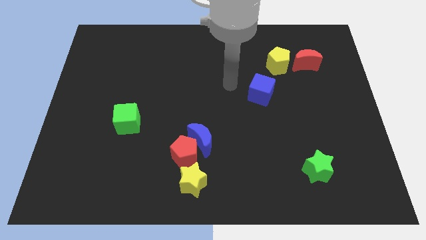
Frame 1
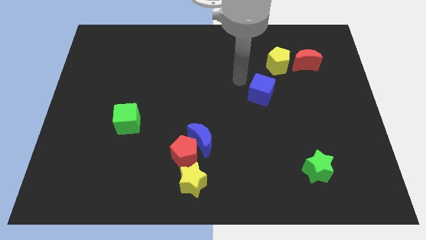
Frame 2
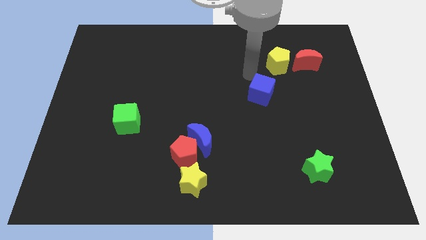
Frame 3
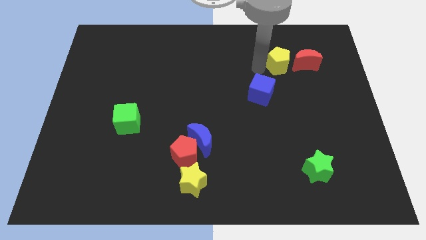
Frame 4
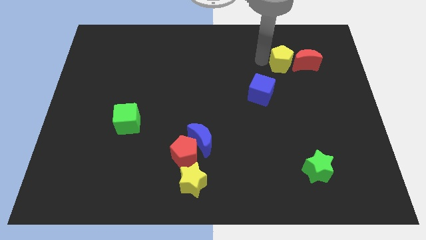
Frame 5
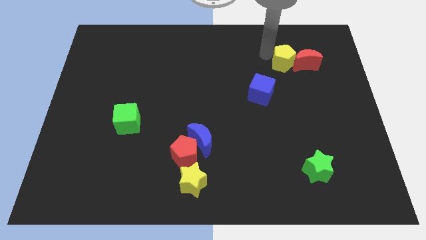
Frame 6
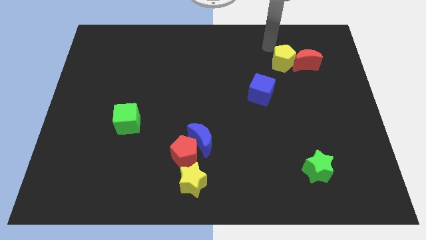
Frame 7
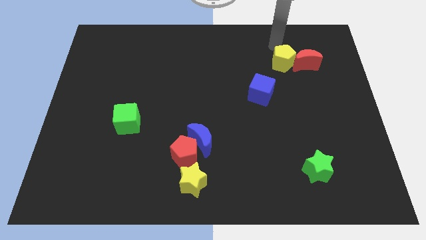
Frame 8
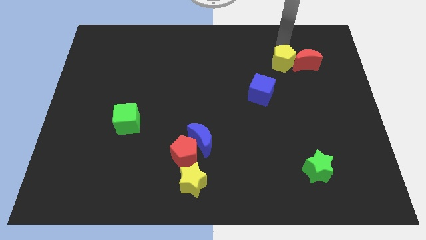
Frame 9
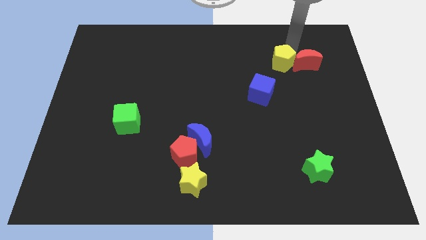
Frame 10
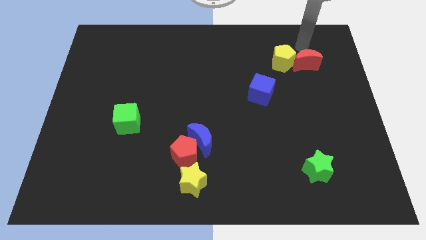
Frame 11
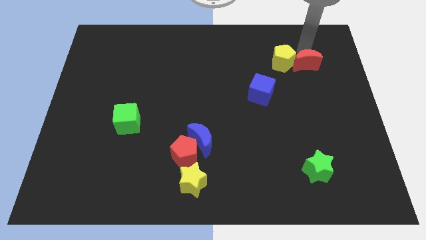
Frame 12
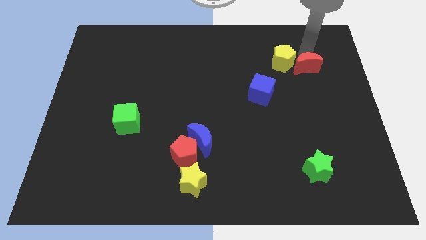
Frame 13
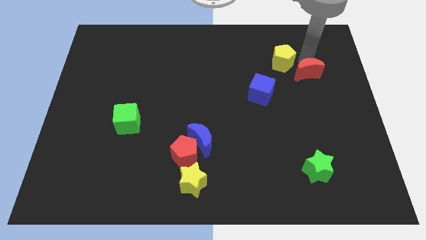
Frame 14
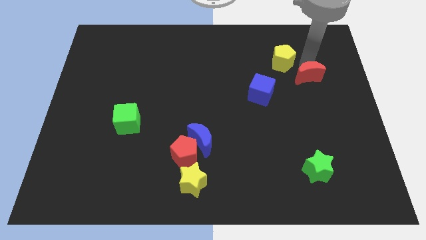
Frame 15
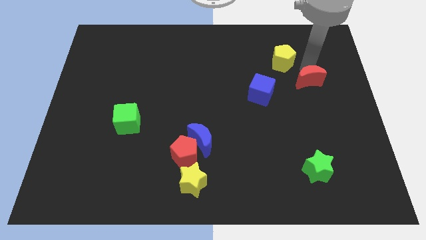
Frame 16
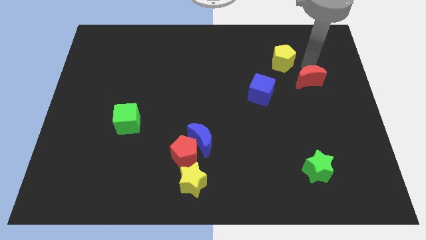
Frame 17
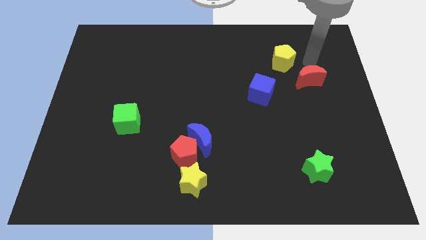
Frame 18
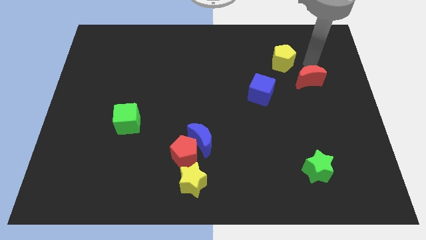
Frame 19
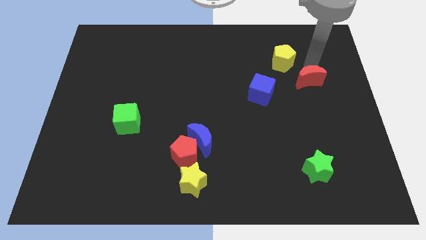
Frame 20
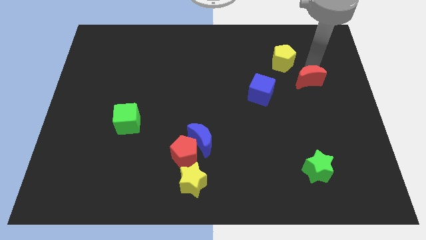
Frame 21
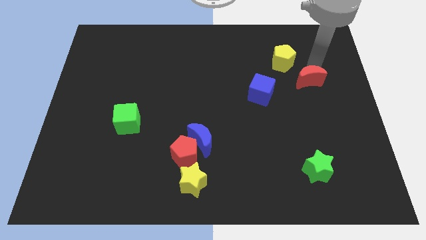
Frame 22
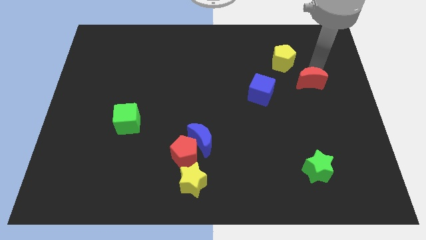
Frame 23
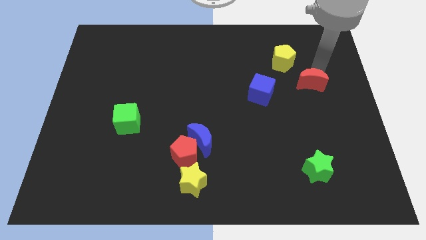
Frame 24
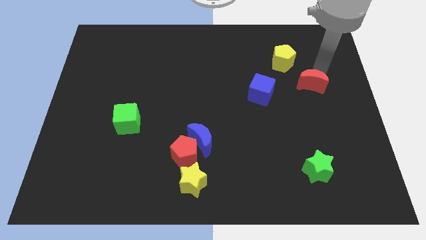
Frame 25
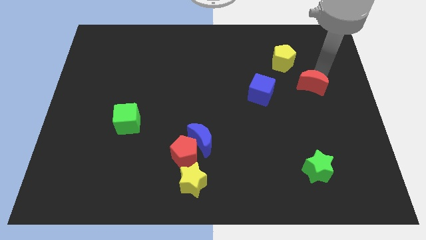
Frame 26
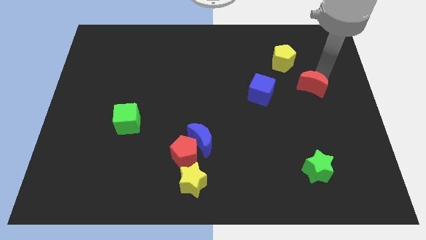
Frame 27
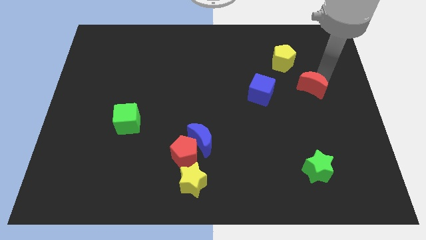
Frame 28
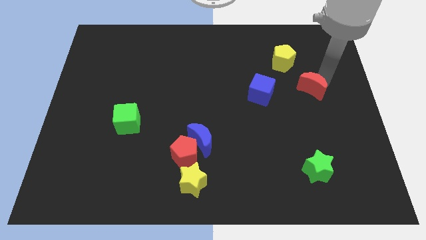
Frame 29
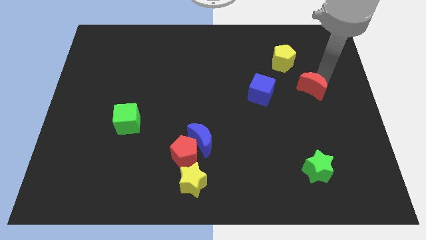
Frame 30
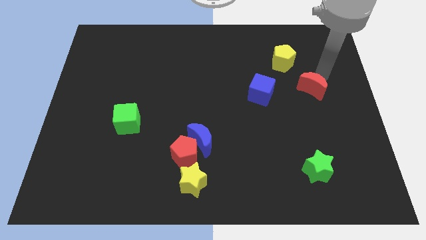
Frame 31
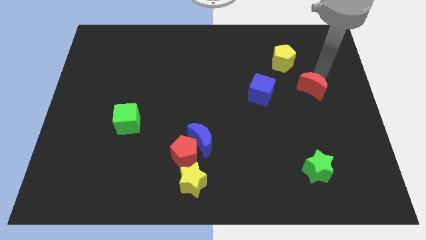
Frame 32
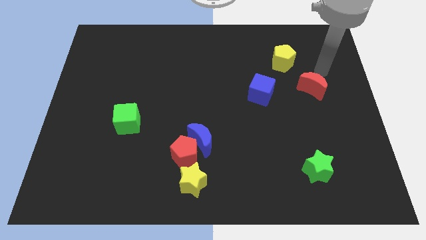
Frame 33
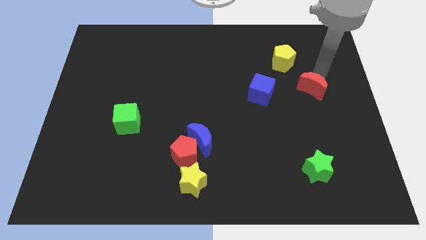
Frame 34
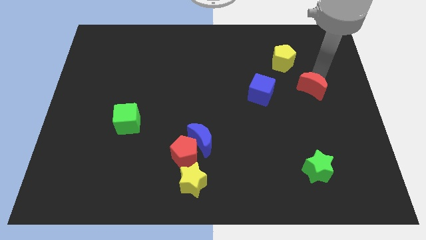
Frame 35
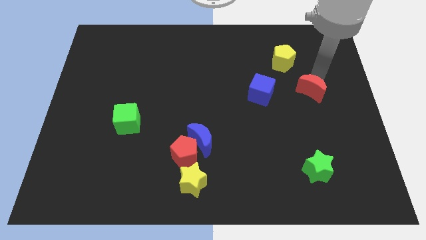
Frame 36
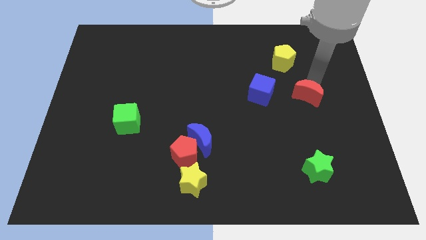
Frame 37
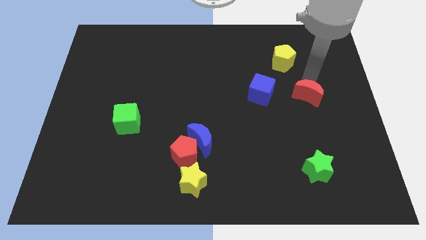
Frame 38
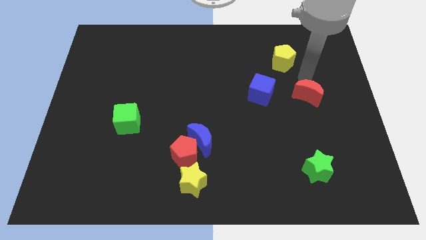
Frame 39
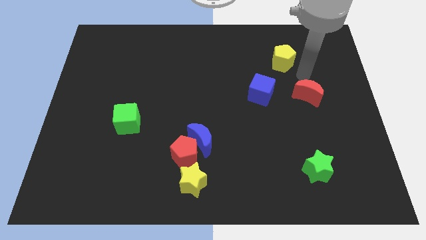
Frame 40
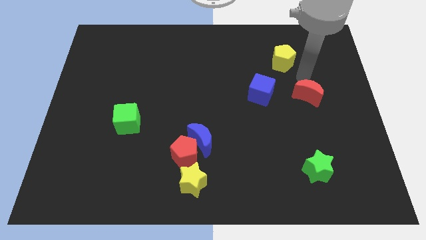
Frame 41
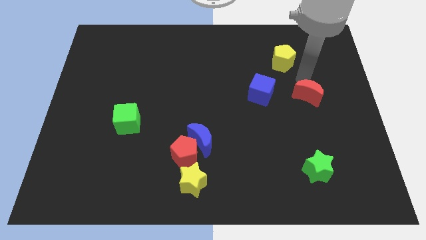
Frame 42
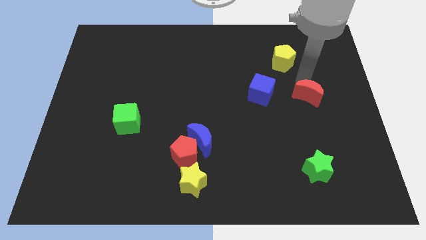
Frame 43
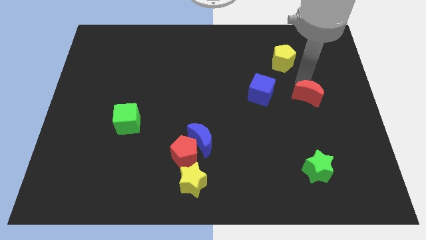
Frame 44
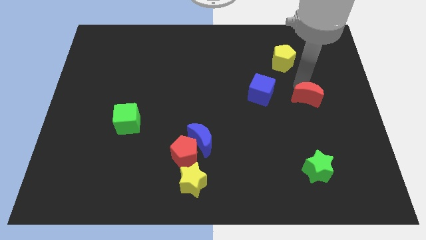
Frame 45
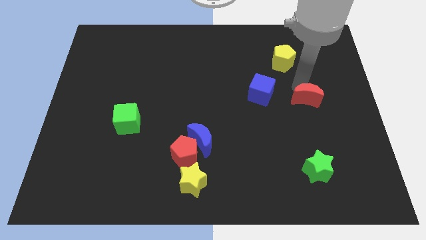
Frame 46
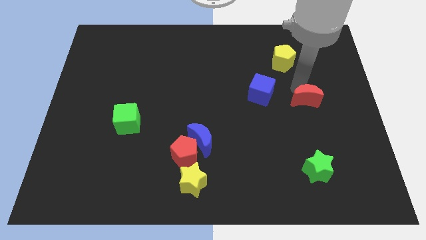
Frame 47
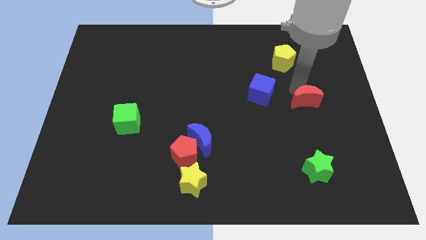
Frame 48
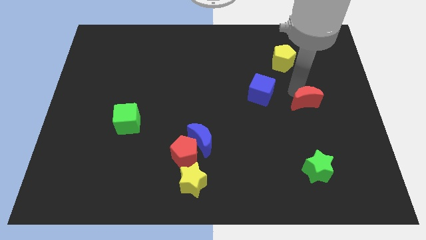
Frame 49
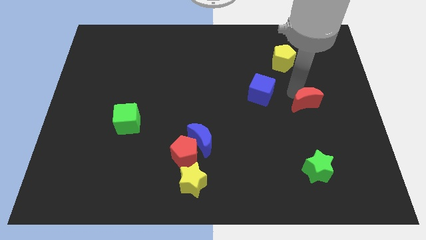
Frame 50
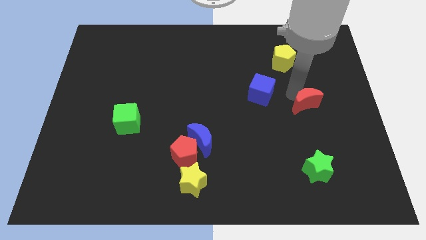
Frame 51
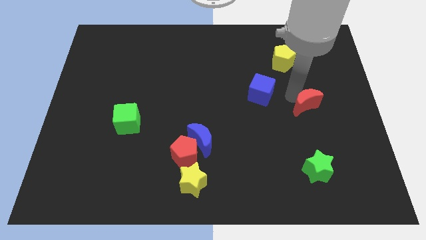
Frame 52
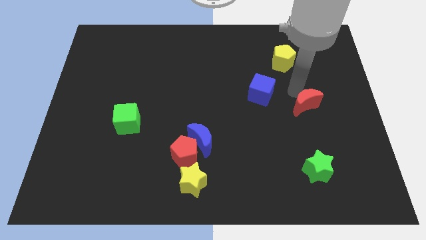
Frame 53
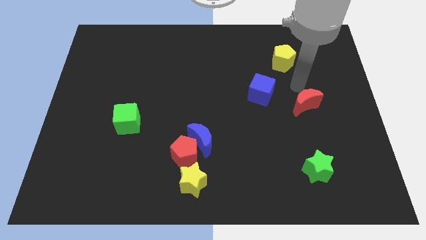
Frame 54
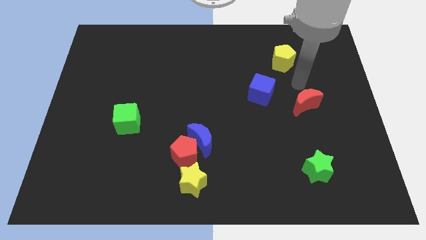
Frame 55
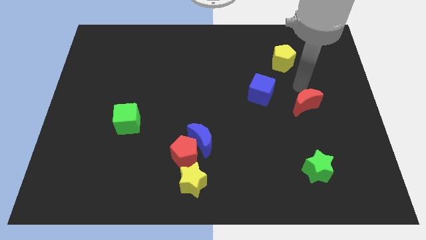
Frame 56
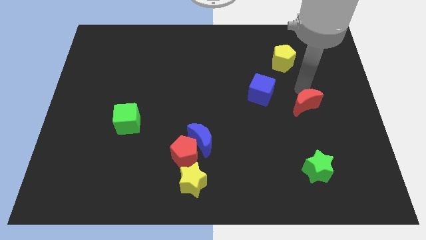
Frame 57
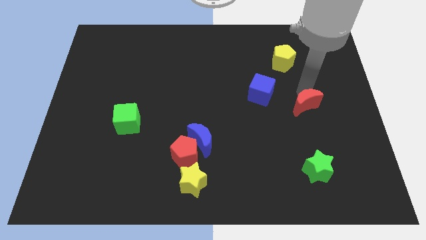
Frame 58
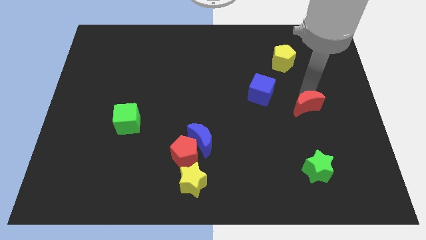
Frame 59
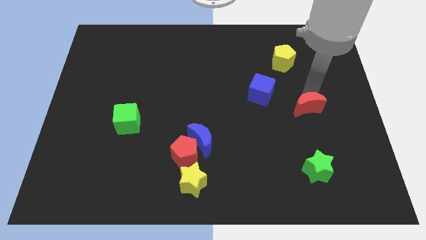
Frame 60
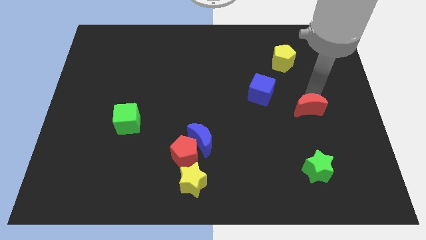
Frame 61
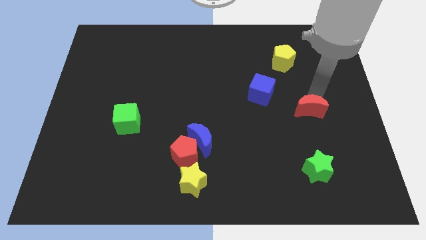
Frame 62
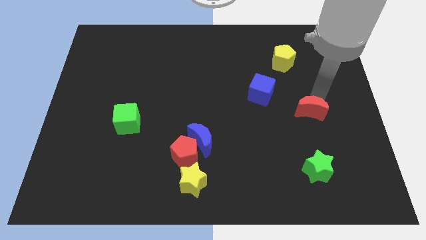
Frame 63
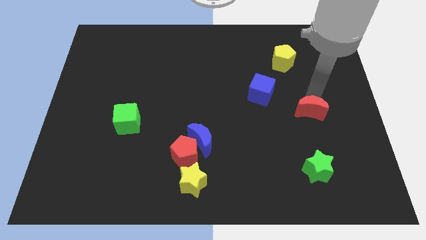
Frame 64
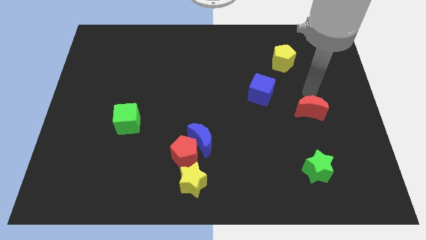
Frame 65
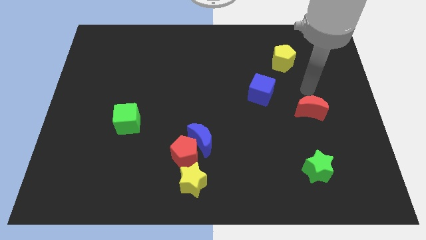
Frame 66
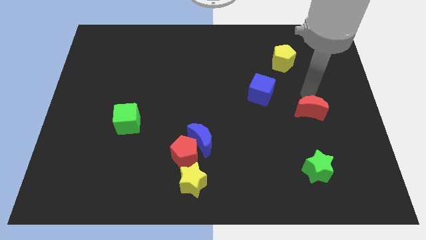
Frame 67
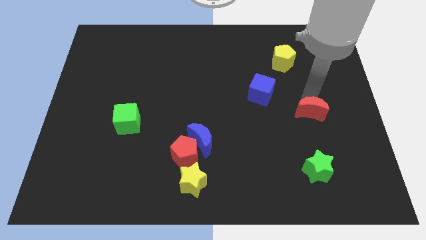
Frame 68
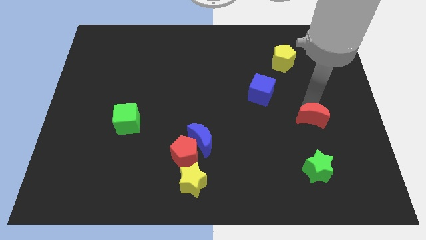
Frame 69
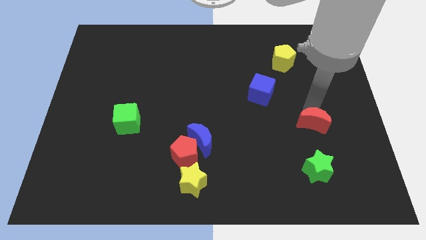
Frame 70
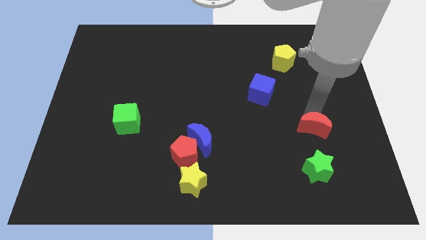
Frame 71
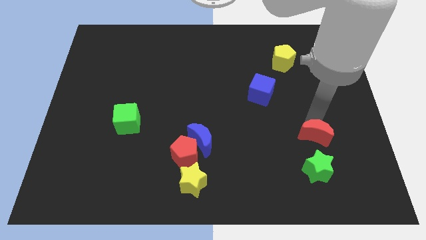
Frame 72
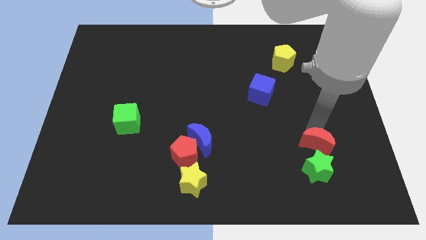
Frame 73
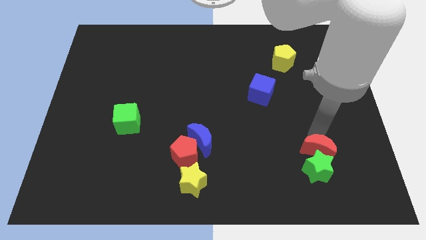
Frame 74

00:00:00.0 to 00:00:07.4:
put the red moon to the green star
